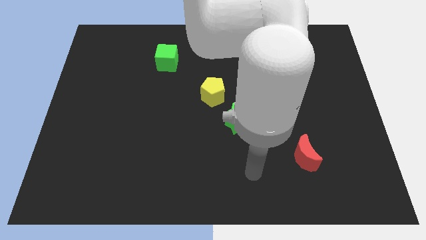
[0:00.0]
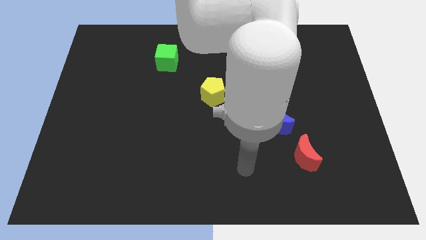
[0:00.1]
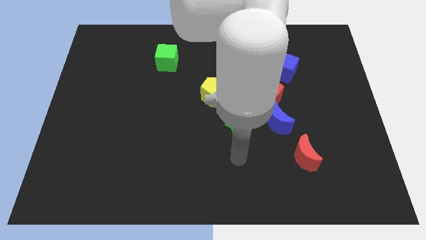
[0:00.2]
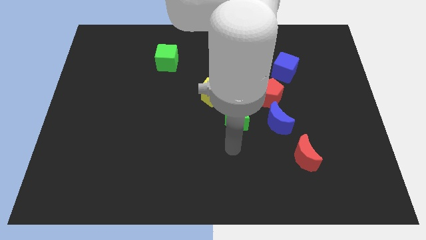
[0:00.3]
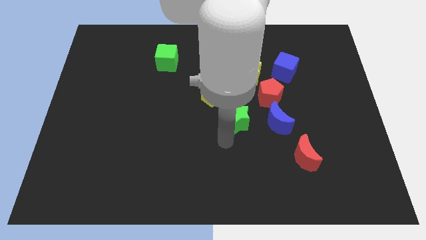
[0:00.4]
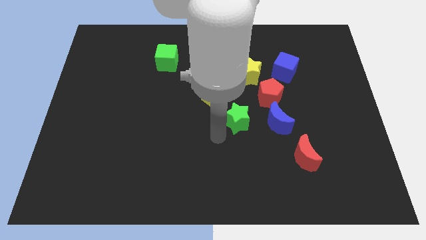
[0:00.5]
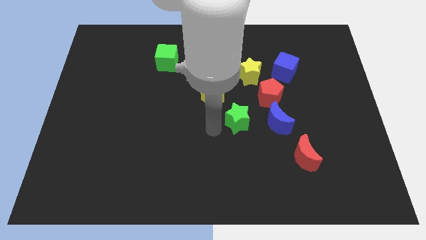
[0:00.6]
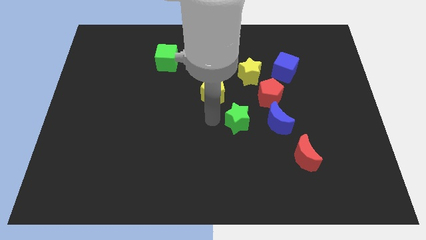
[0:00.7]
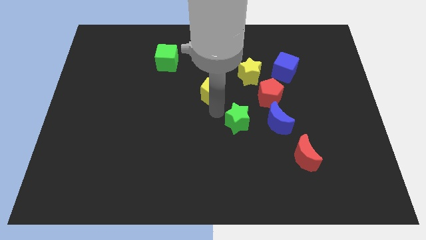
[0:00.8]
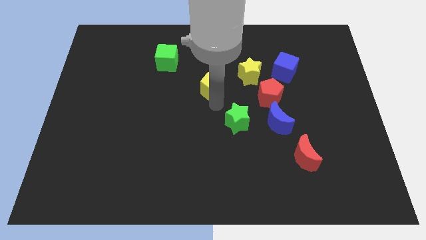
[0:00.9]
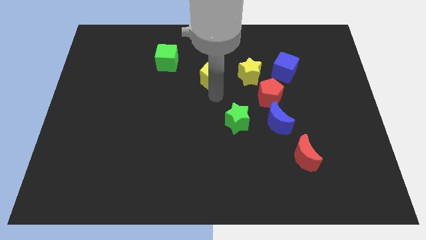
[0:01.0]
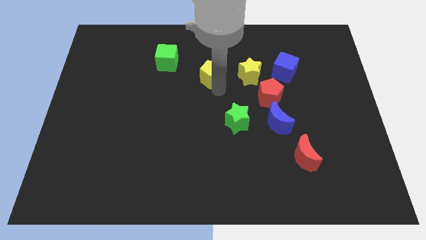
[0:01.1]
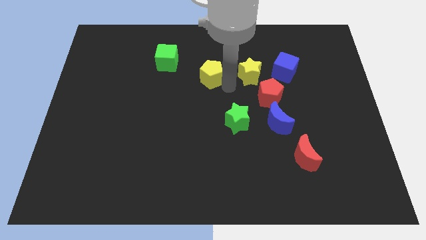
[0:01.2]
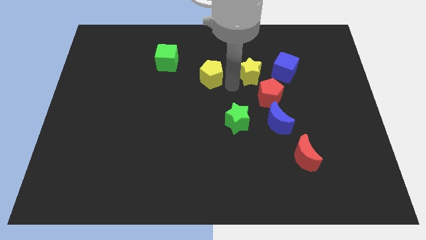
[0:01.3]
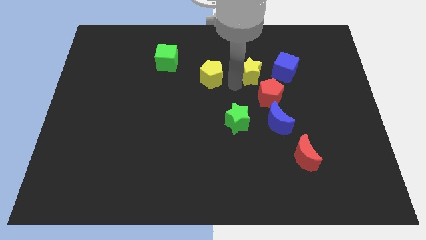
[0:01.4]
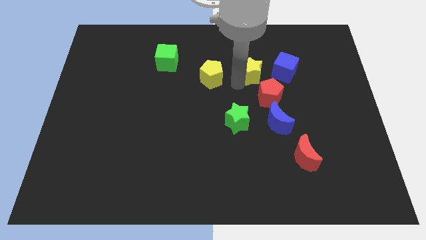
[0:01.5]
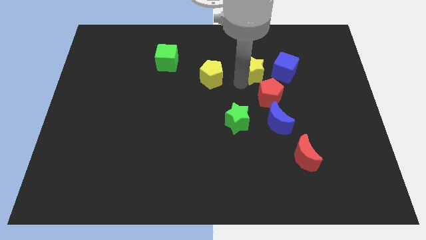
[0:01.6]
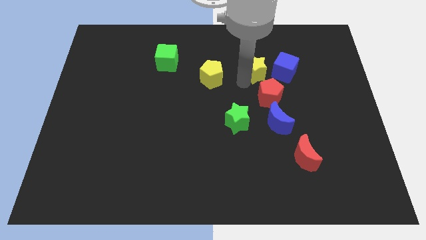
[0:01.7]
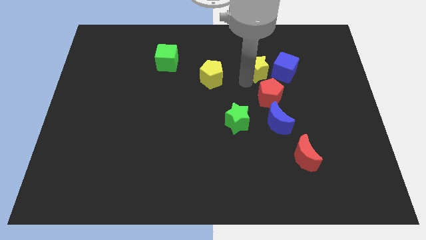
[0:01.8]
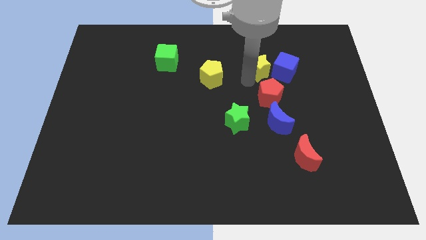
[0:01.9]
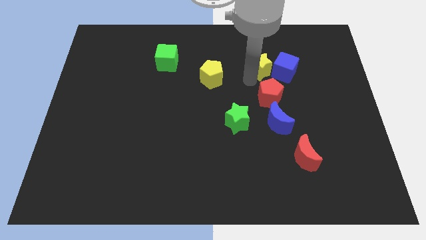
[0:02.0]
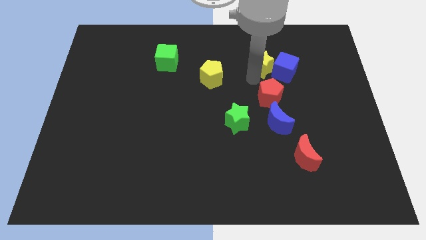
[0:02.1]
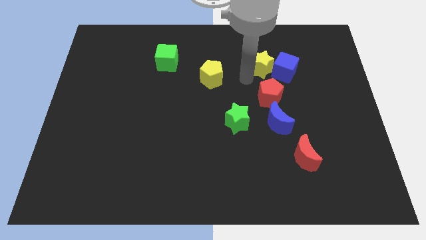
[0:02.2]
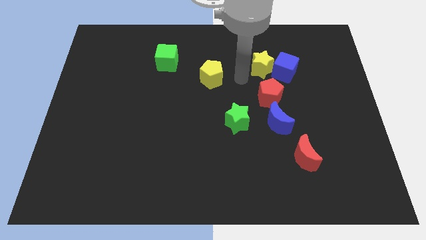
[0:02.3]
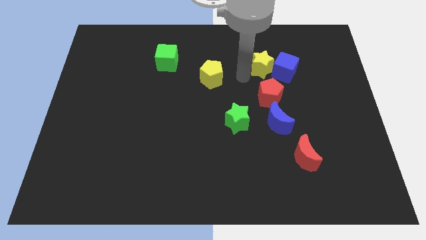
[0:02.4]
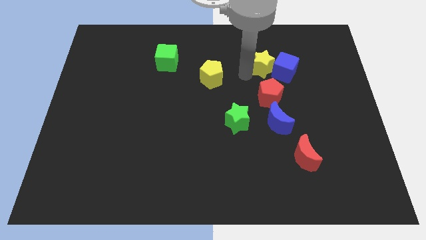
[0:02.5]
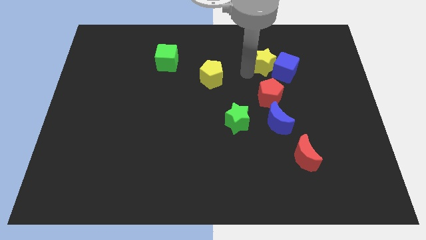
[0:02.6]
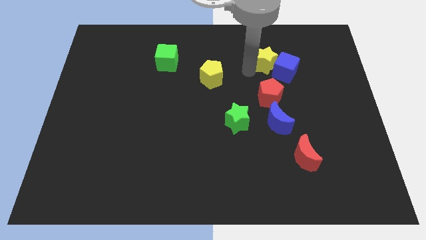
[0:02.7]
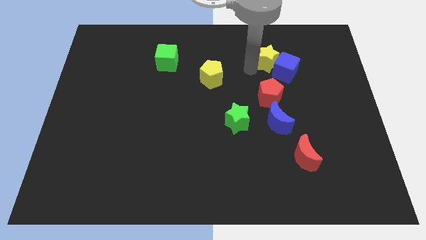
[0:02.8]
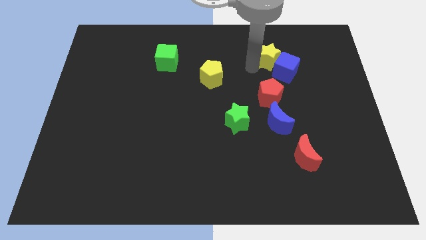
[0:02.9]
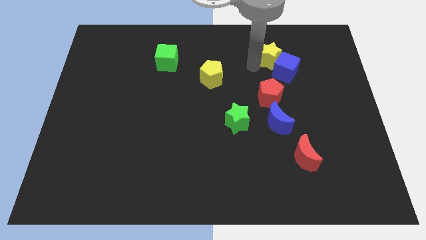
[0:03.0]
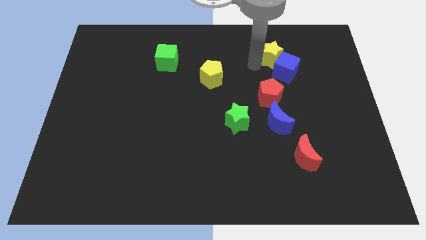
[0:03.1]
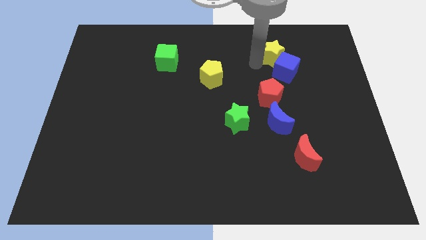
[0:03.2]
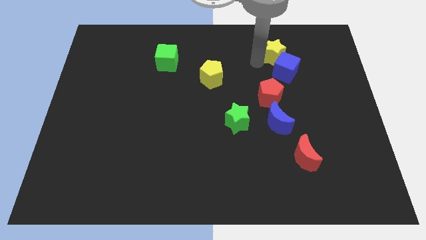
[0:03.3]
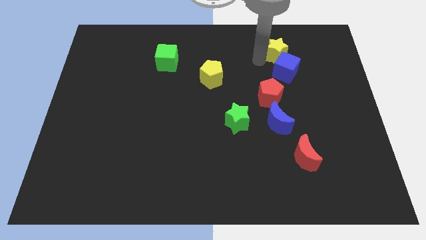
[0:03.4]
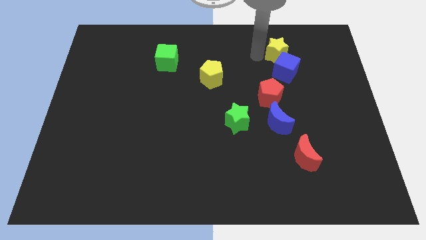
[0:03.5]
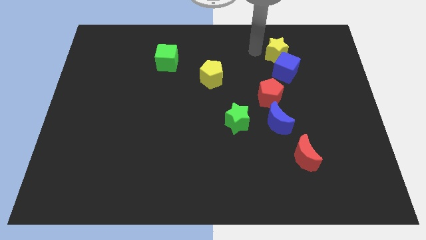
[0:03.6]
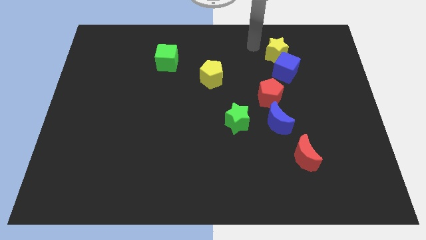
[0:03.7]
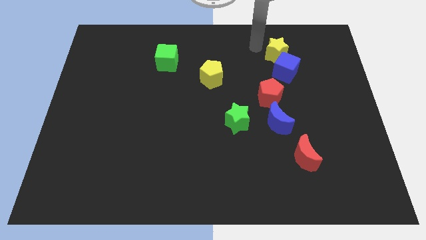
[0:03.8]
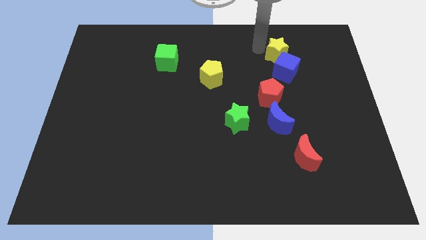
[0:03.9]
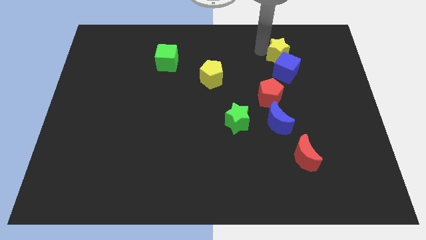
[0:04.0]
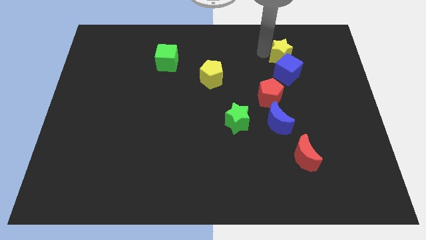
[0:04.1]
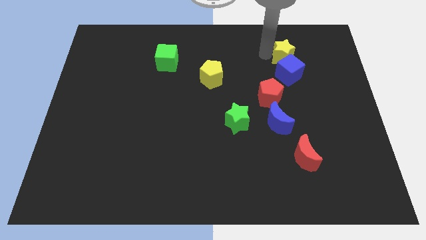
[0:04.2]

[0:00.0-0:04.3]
slightly slide the yellow star right

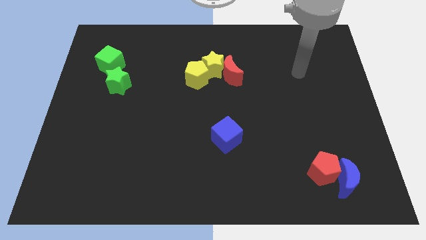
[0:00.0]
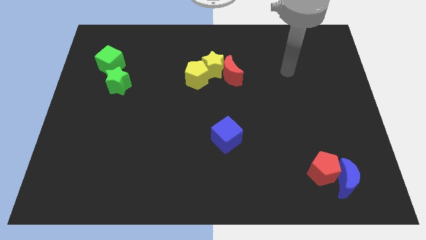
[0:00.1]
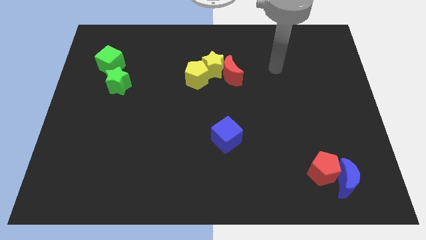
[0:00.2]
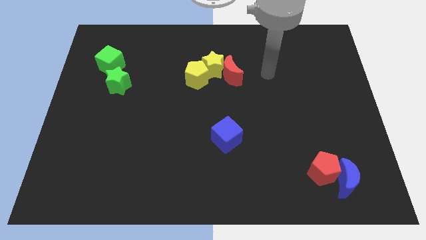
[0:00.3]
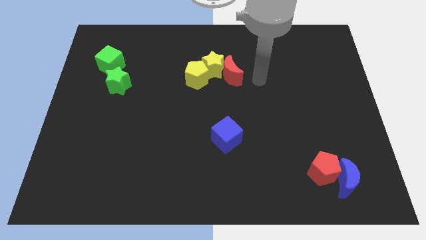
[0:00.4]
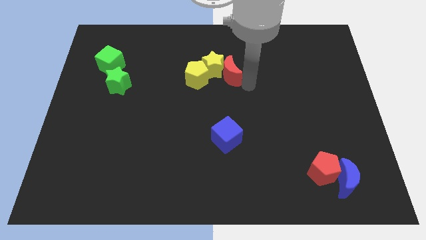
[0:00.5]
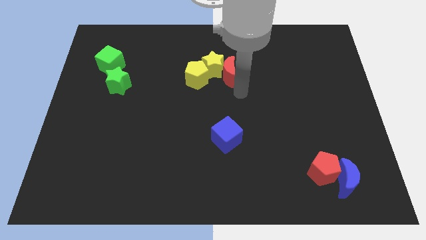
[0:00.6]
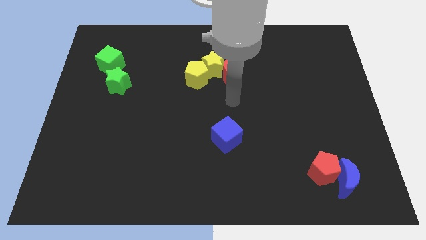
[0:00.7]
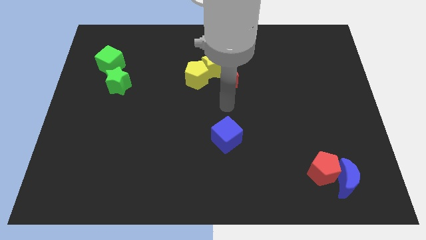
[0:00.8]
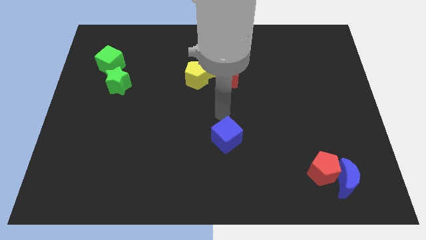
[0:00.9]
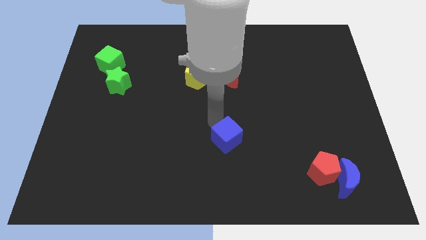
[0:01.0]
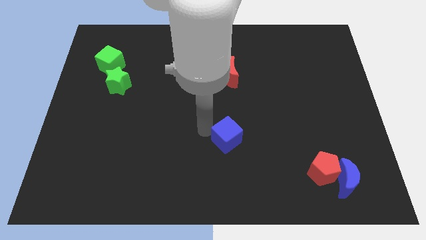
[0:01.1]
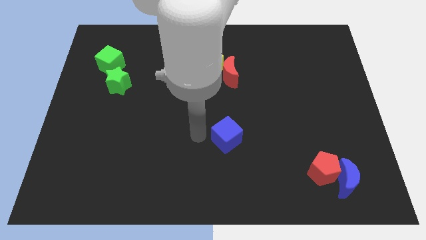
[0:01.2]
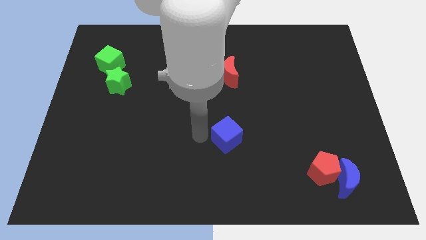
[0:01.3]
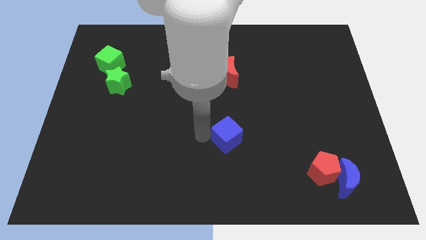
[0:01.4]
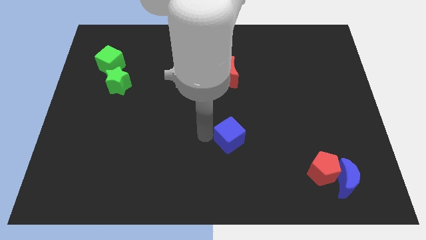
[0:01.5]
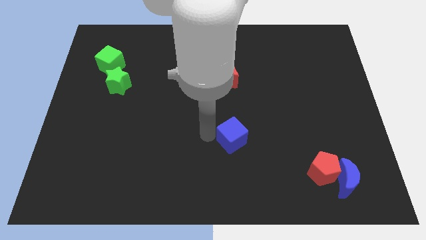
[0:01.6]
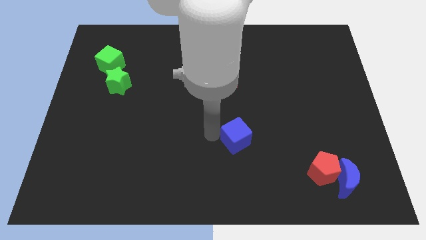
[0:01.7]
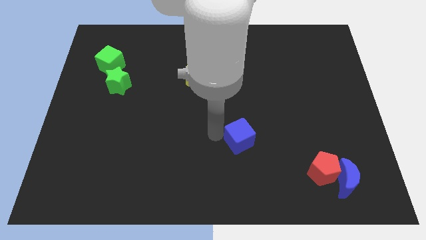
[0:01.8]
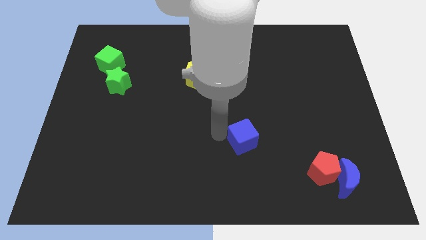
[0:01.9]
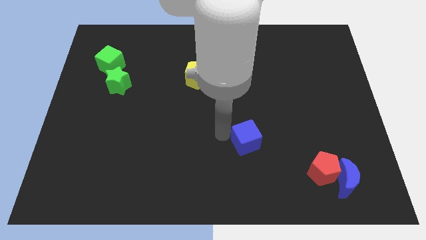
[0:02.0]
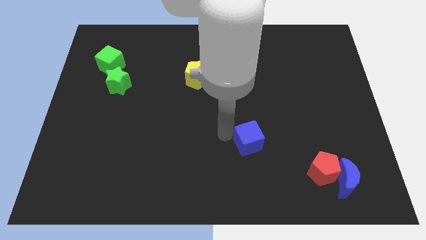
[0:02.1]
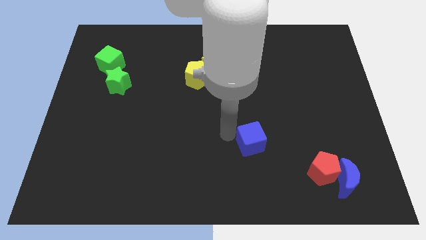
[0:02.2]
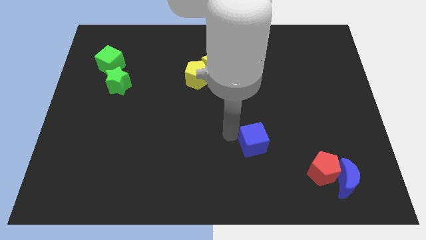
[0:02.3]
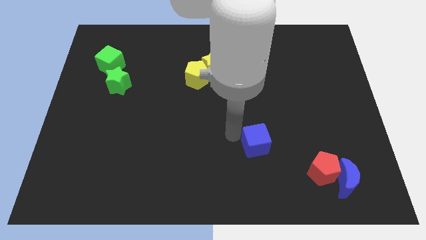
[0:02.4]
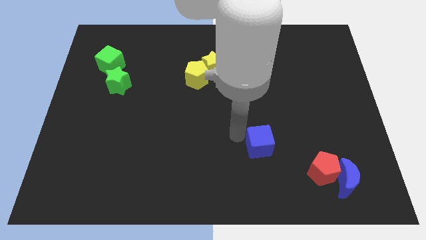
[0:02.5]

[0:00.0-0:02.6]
slightly move the blue cube to the right

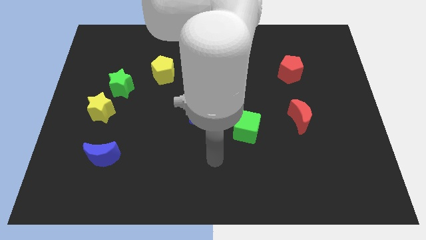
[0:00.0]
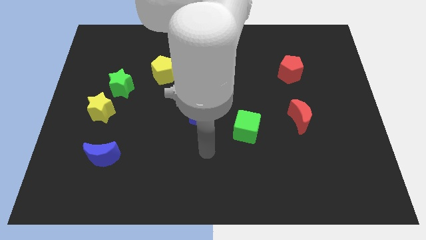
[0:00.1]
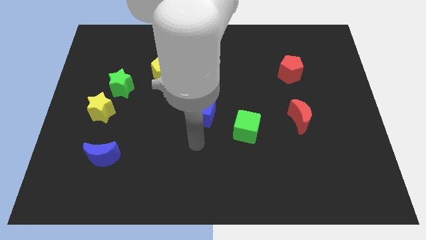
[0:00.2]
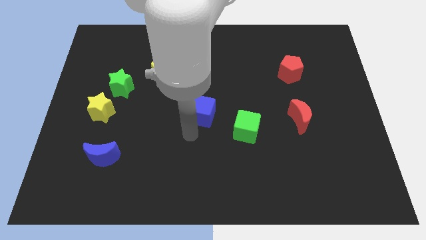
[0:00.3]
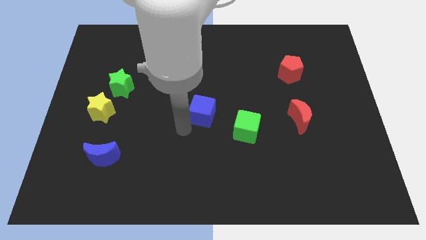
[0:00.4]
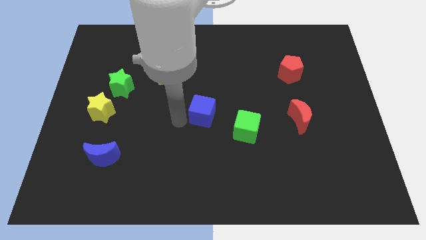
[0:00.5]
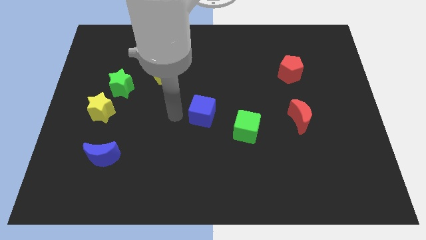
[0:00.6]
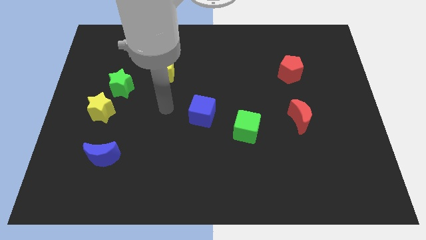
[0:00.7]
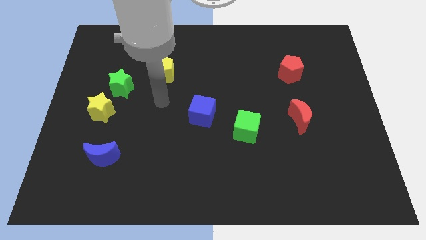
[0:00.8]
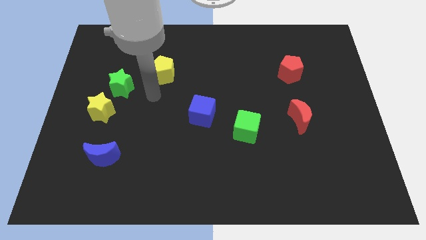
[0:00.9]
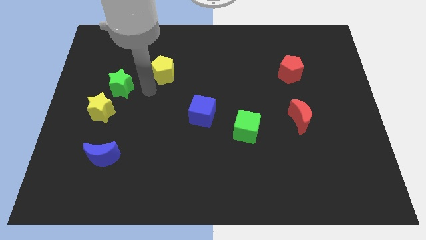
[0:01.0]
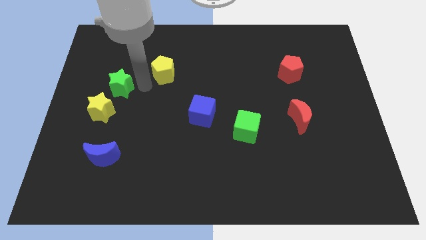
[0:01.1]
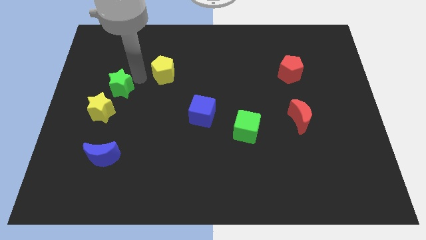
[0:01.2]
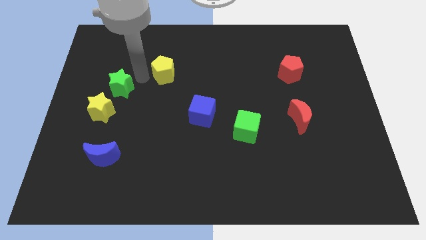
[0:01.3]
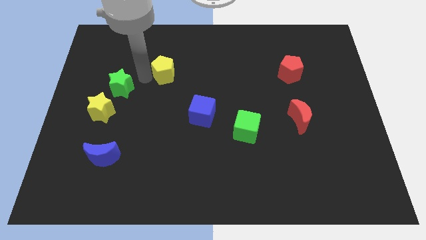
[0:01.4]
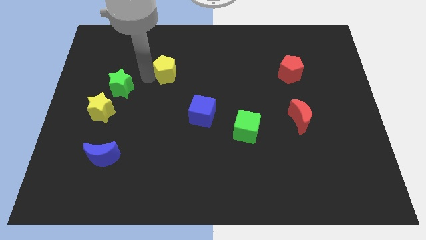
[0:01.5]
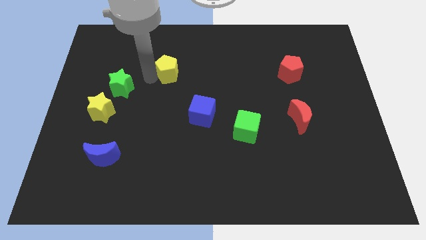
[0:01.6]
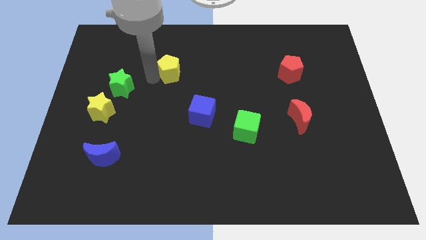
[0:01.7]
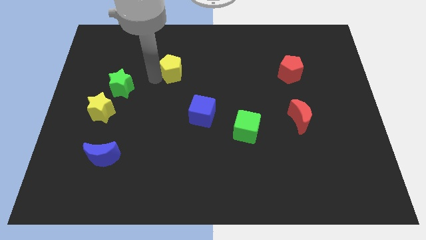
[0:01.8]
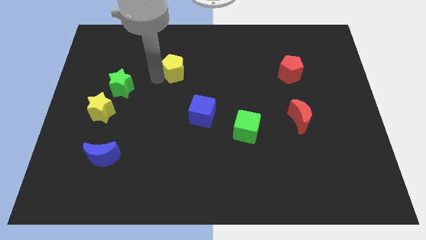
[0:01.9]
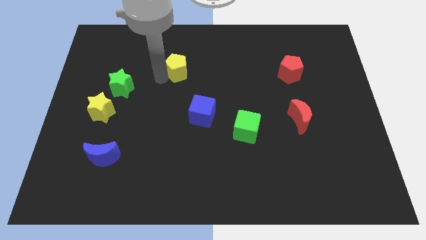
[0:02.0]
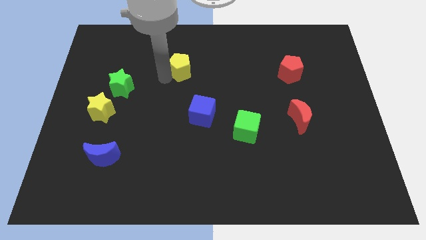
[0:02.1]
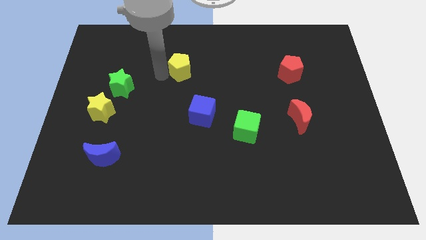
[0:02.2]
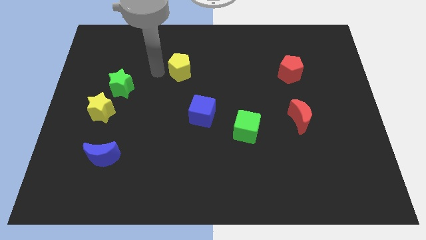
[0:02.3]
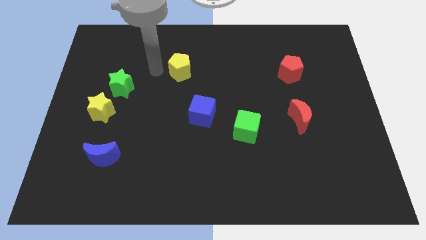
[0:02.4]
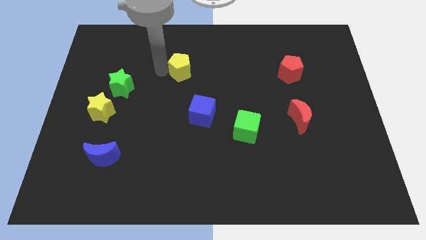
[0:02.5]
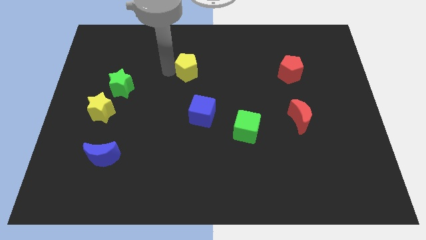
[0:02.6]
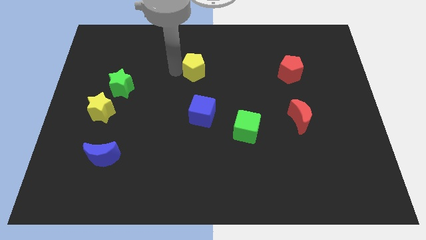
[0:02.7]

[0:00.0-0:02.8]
slide the yellow pentagon slightly to the right
